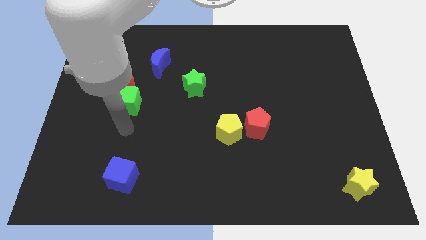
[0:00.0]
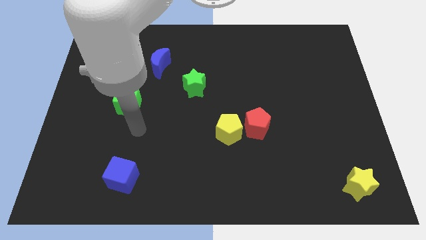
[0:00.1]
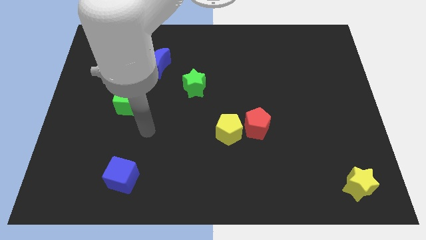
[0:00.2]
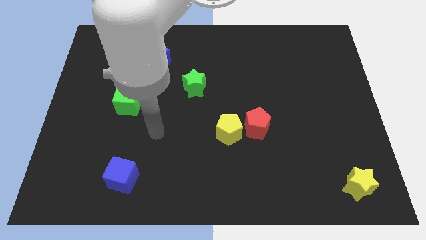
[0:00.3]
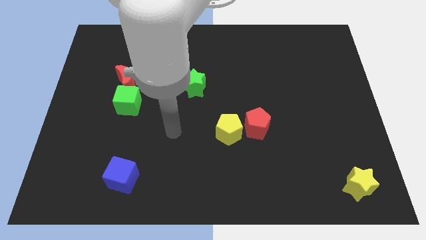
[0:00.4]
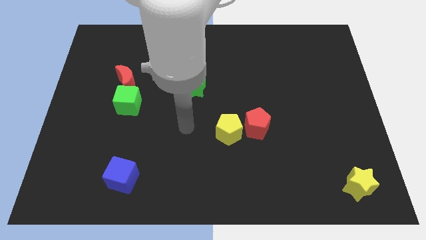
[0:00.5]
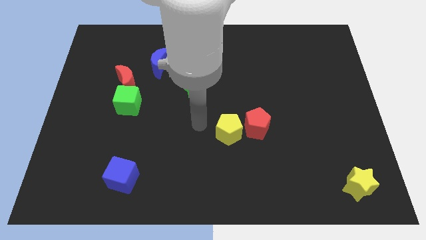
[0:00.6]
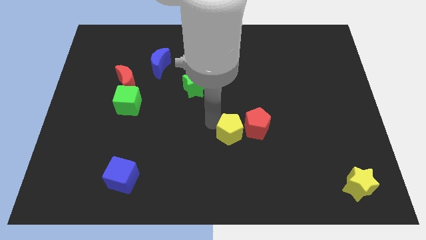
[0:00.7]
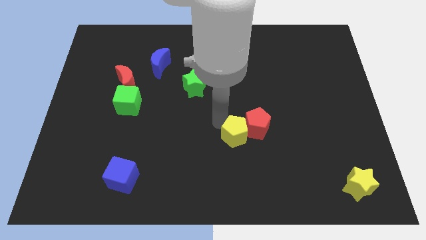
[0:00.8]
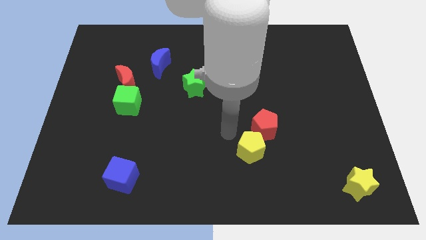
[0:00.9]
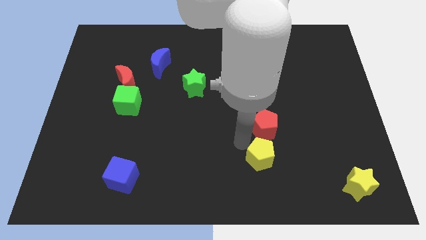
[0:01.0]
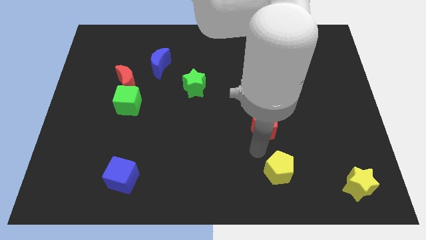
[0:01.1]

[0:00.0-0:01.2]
move the red pentagon away from the yellow pentagon

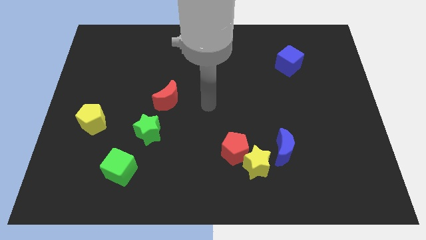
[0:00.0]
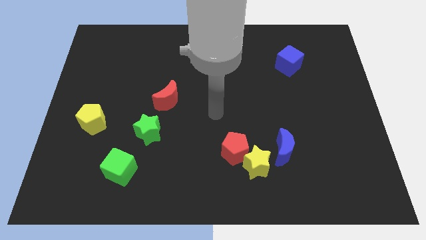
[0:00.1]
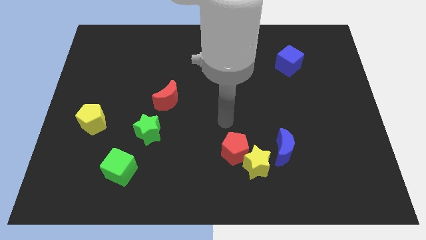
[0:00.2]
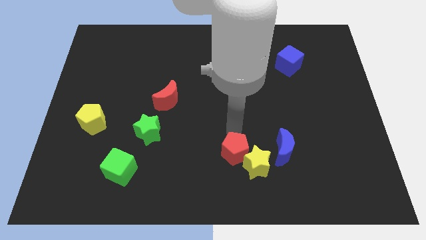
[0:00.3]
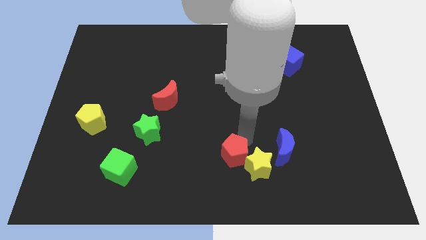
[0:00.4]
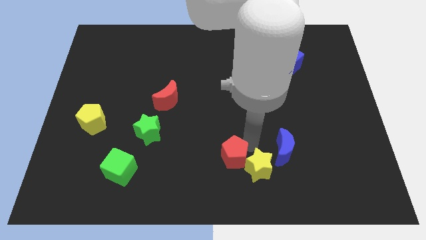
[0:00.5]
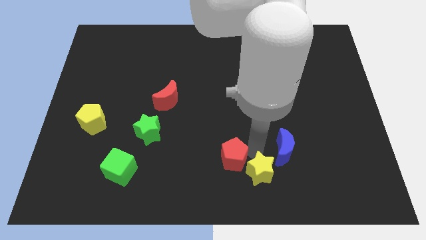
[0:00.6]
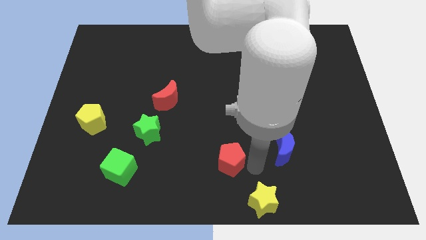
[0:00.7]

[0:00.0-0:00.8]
separate the red pentagon from the yellow star

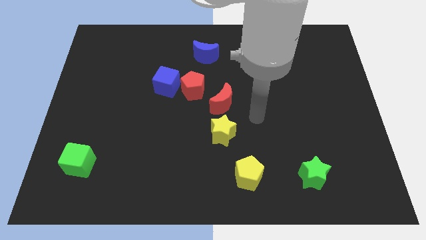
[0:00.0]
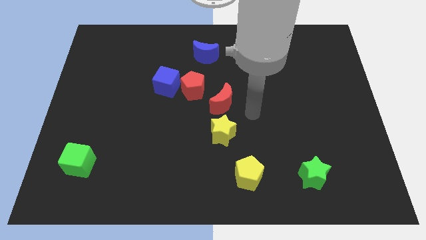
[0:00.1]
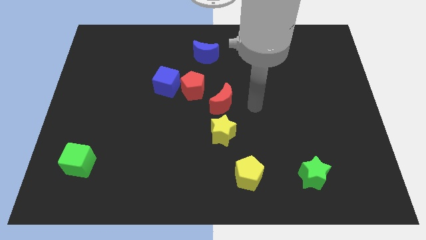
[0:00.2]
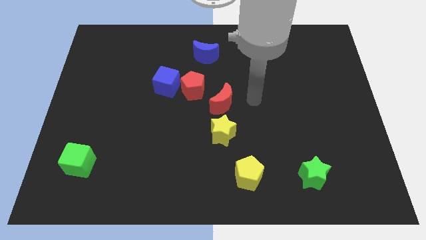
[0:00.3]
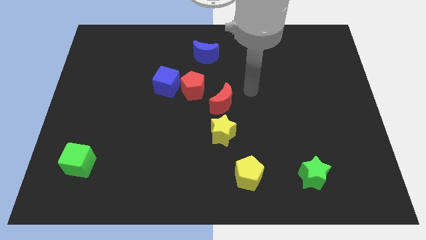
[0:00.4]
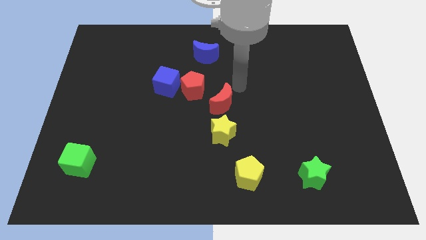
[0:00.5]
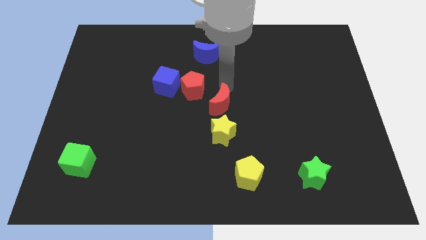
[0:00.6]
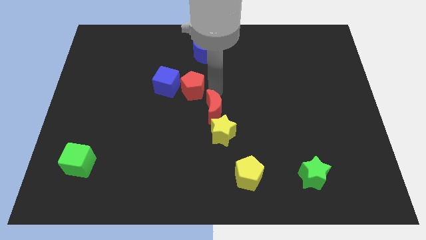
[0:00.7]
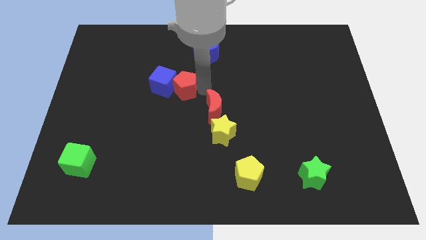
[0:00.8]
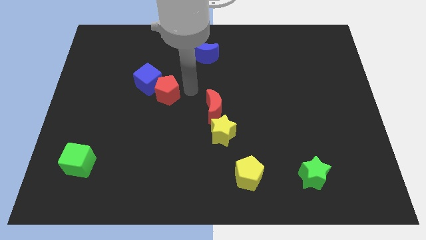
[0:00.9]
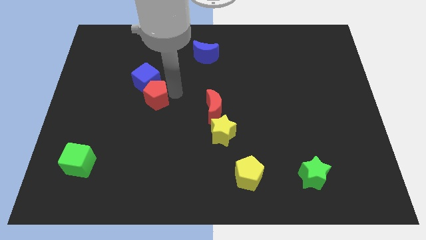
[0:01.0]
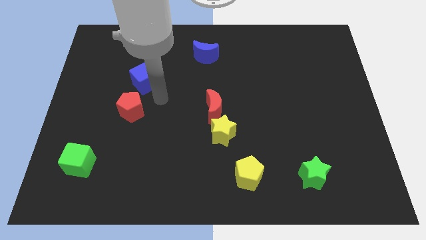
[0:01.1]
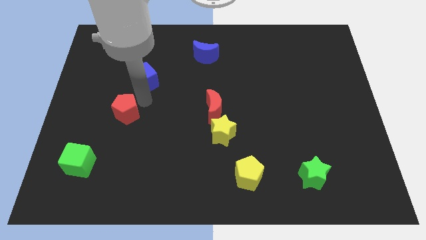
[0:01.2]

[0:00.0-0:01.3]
move the blue cube away from the red pentagon

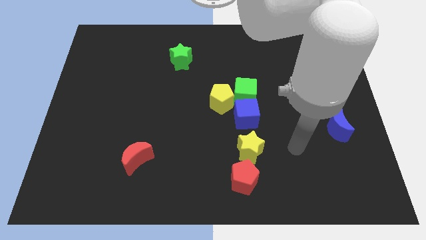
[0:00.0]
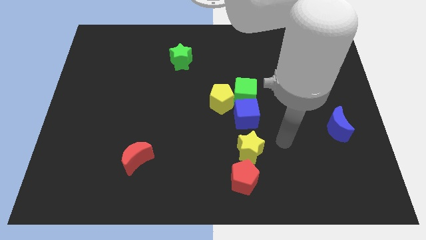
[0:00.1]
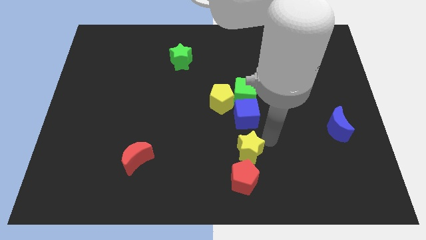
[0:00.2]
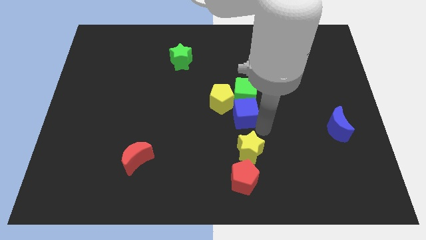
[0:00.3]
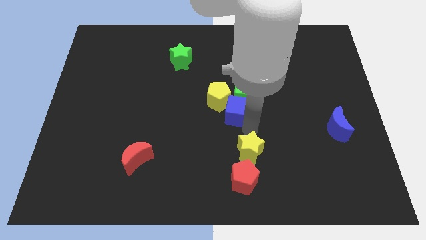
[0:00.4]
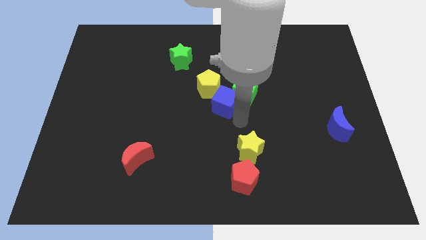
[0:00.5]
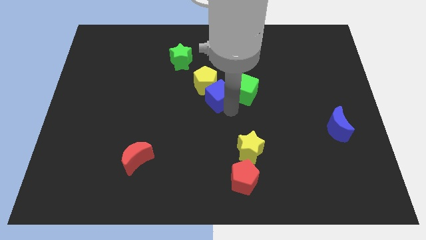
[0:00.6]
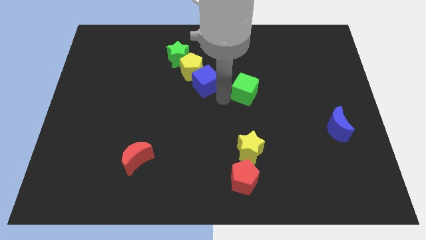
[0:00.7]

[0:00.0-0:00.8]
move the green cube away from the yellow pentagon and blue cube

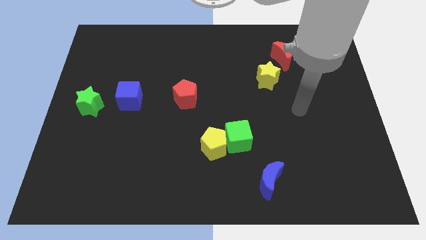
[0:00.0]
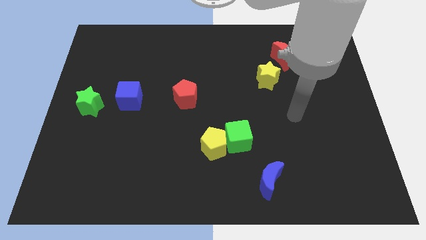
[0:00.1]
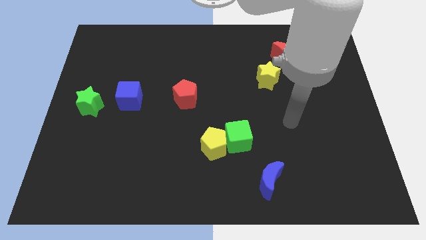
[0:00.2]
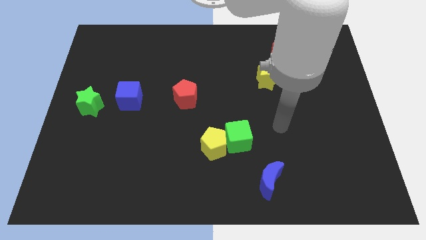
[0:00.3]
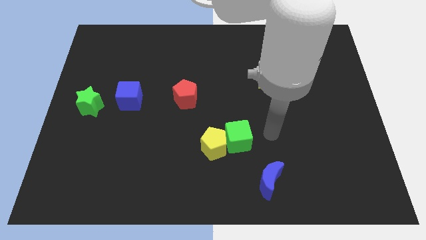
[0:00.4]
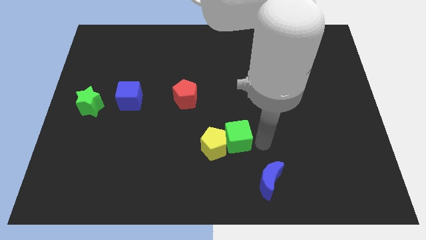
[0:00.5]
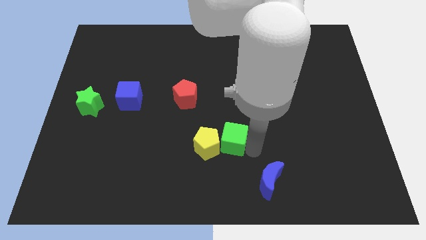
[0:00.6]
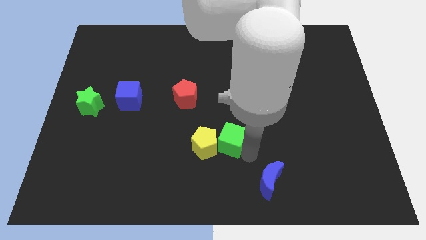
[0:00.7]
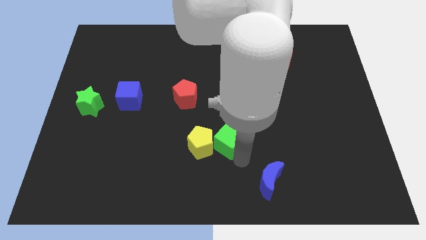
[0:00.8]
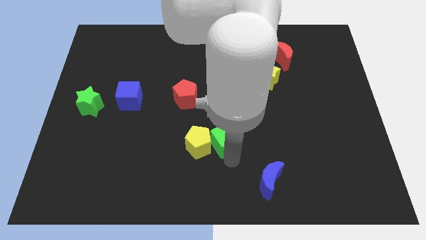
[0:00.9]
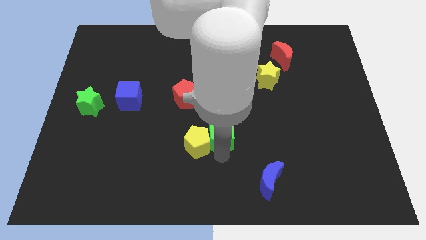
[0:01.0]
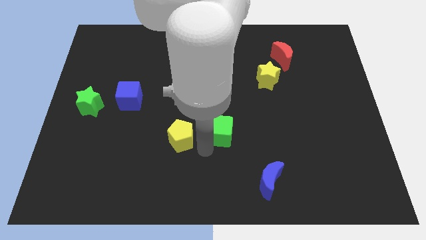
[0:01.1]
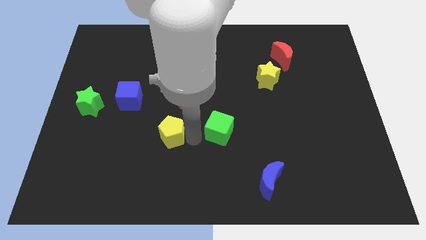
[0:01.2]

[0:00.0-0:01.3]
move the green cube away from the yellow pentagon

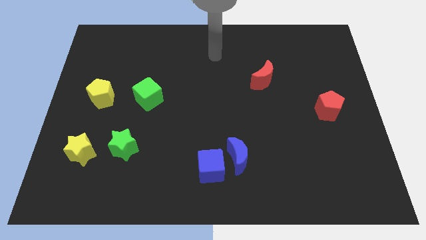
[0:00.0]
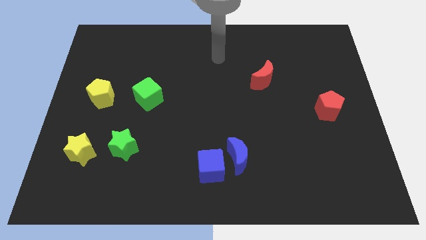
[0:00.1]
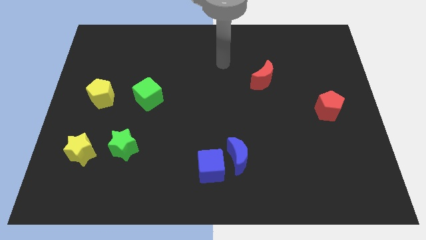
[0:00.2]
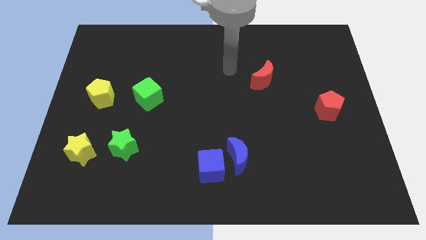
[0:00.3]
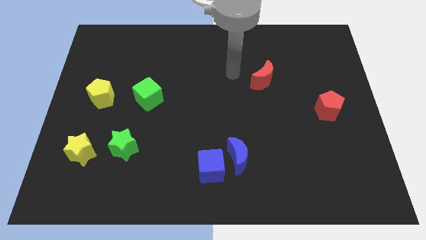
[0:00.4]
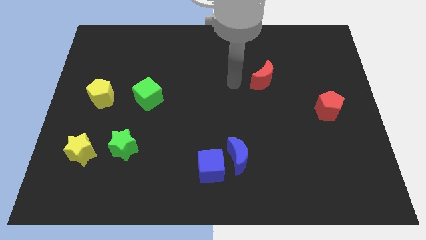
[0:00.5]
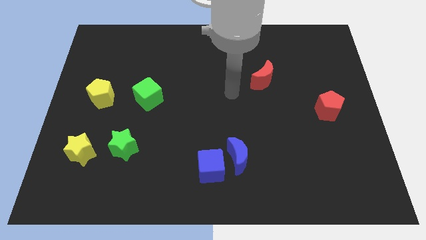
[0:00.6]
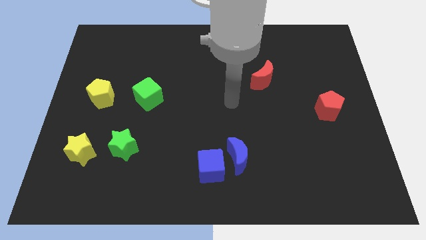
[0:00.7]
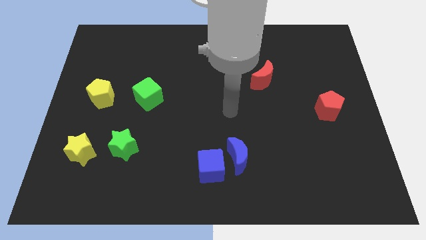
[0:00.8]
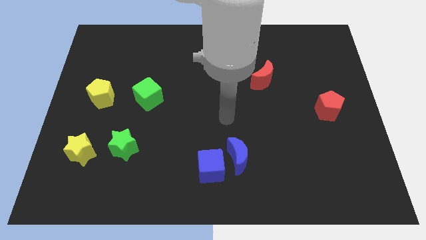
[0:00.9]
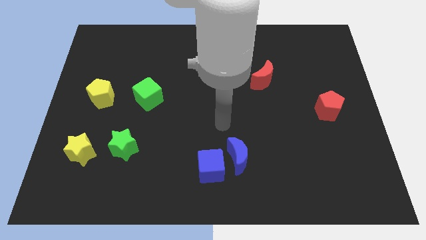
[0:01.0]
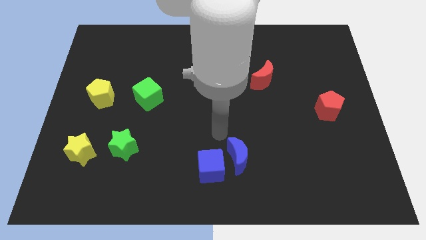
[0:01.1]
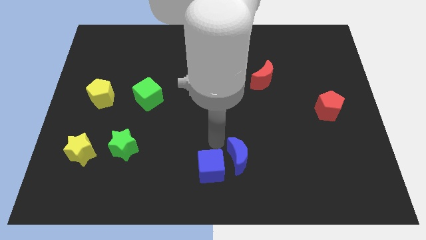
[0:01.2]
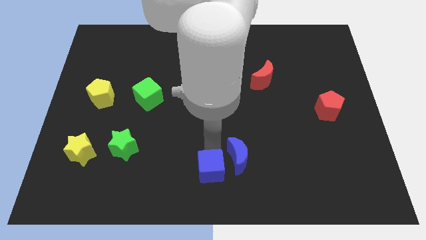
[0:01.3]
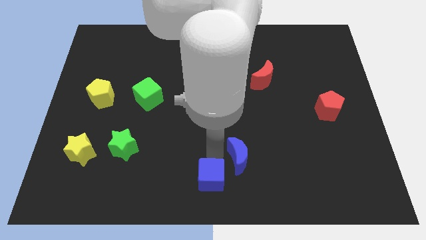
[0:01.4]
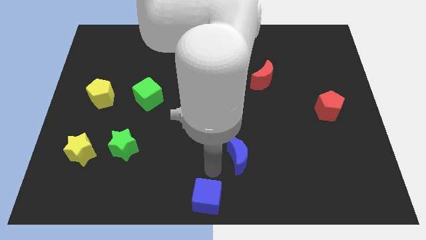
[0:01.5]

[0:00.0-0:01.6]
separate the blue moon from the blue cube

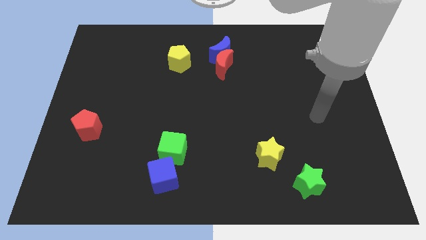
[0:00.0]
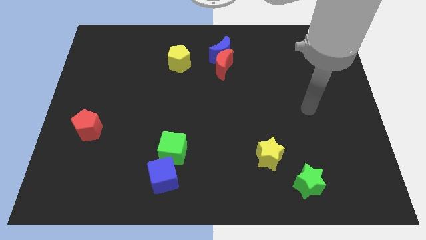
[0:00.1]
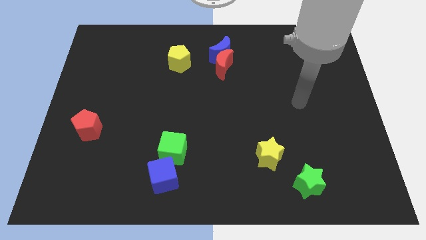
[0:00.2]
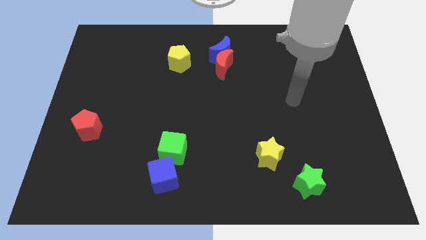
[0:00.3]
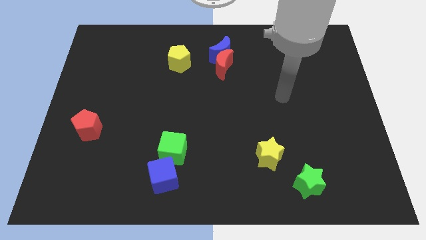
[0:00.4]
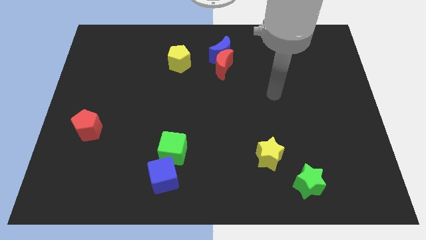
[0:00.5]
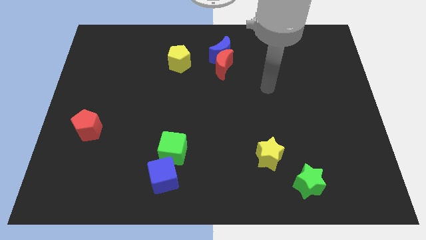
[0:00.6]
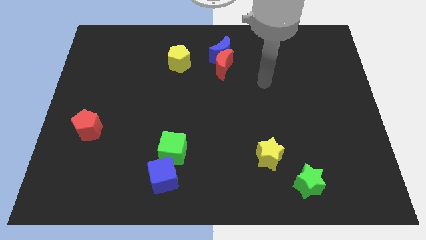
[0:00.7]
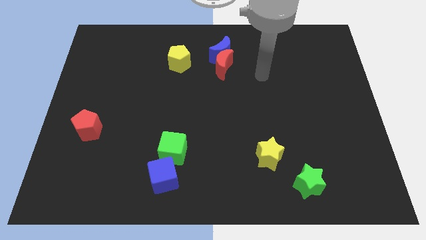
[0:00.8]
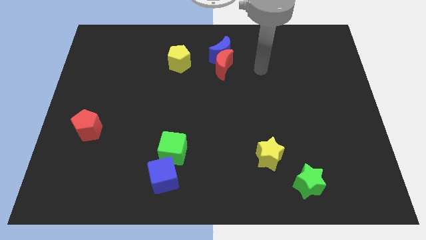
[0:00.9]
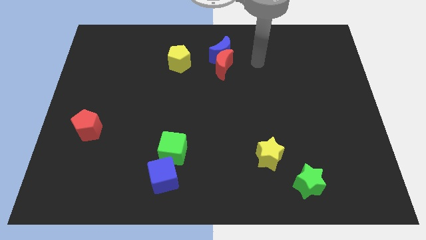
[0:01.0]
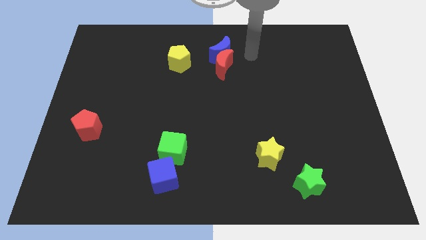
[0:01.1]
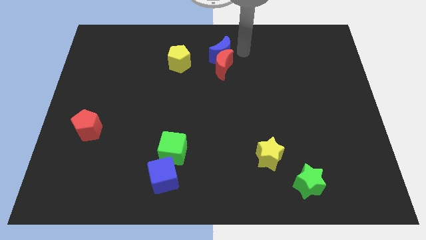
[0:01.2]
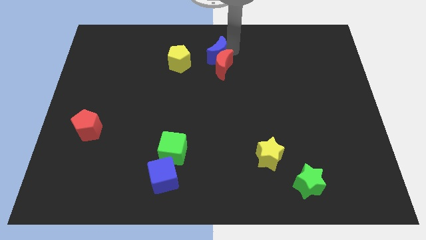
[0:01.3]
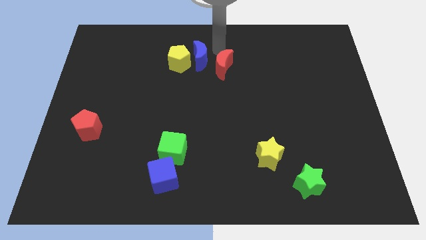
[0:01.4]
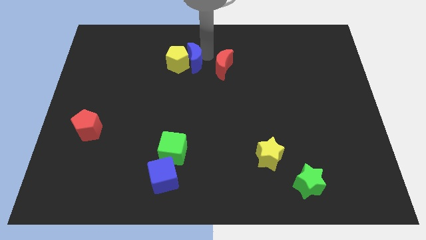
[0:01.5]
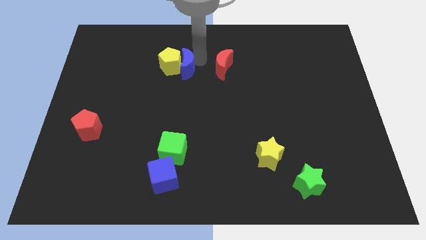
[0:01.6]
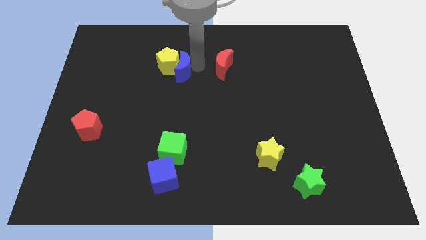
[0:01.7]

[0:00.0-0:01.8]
separate the red moon from the blue moon

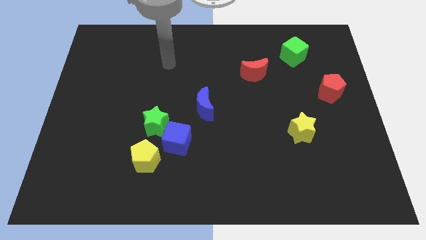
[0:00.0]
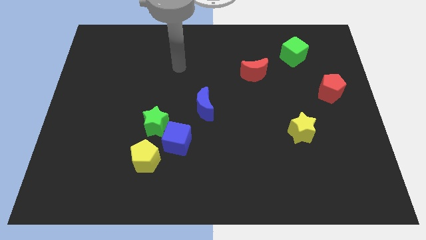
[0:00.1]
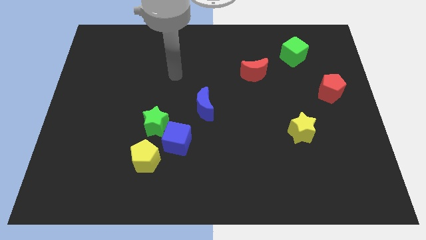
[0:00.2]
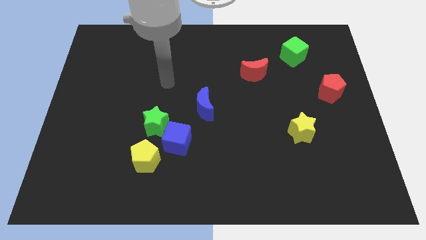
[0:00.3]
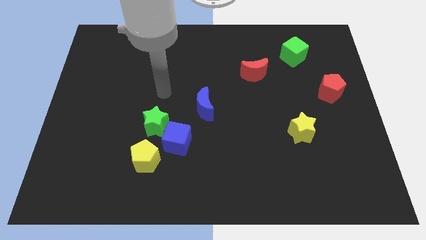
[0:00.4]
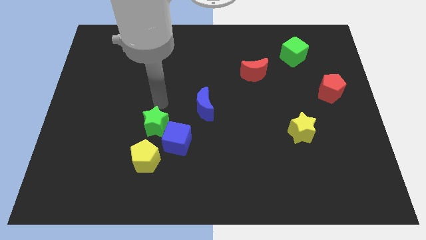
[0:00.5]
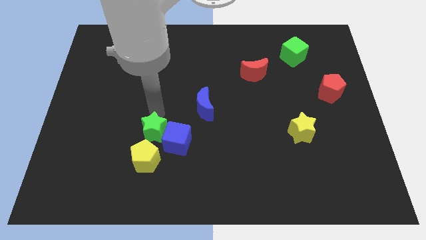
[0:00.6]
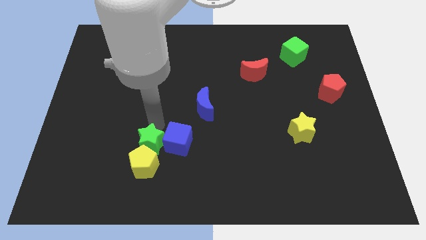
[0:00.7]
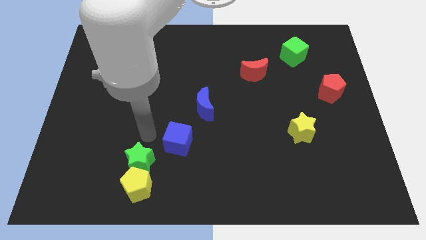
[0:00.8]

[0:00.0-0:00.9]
move the blue cube away from the green star and yellow pentagon
